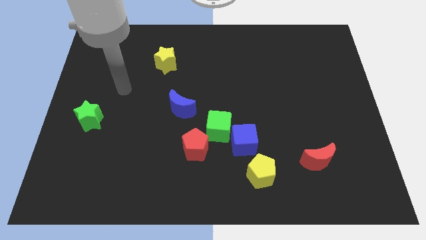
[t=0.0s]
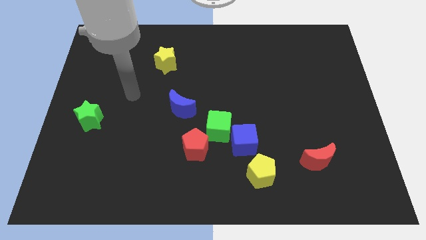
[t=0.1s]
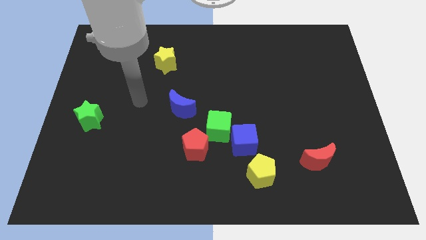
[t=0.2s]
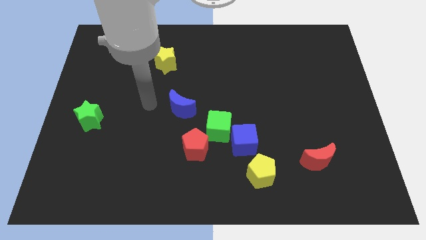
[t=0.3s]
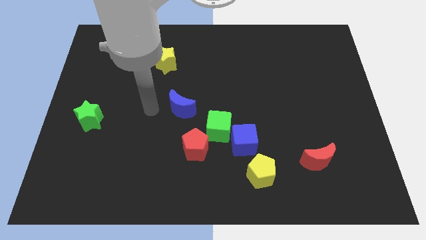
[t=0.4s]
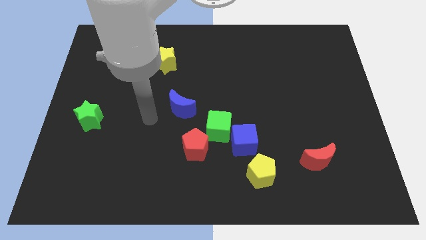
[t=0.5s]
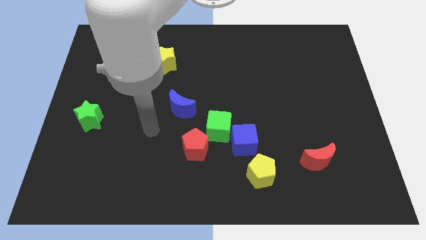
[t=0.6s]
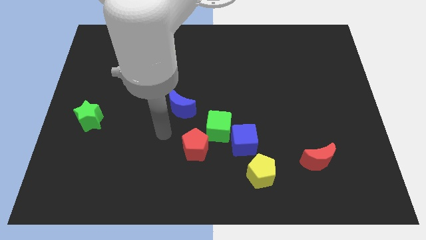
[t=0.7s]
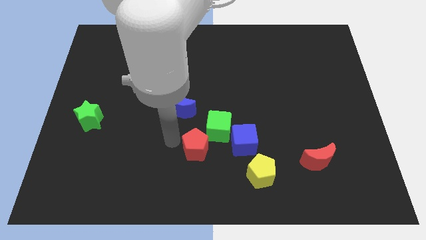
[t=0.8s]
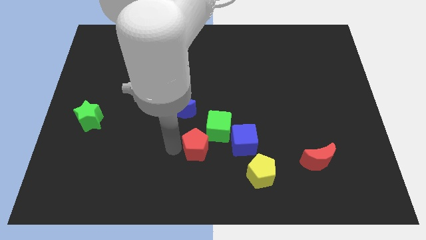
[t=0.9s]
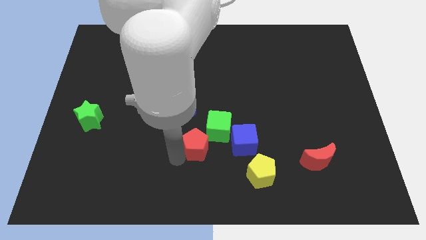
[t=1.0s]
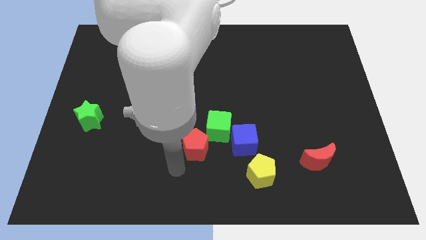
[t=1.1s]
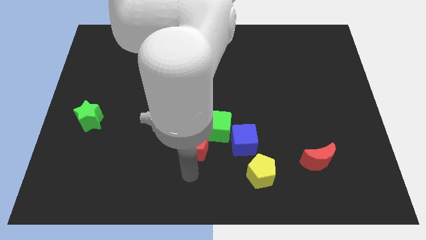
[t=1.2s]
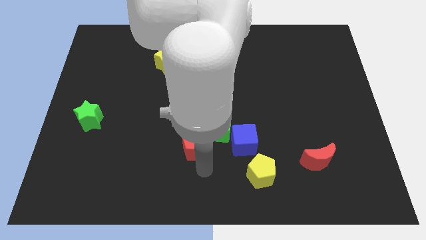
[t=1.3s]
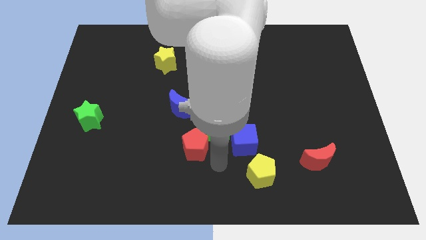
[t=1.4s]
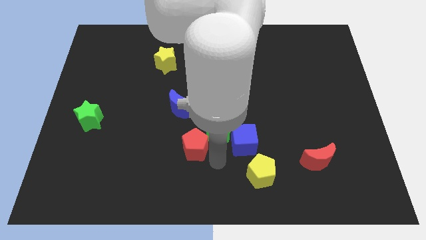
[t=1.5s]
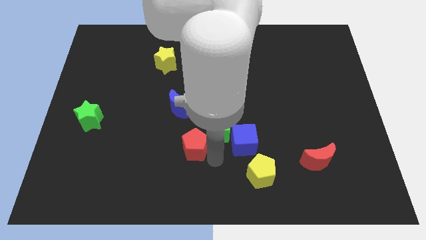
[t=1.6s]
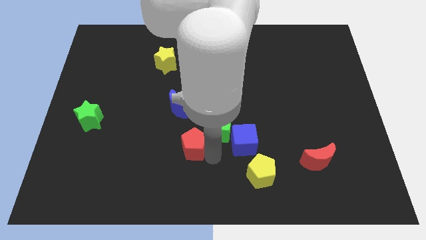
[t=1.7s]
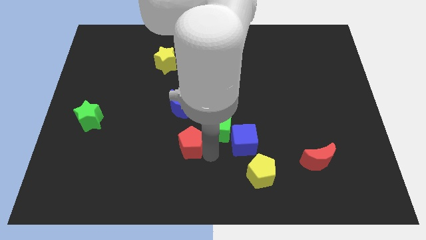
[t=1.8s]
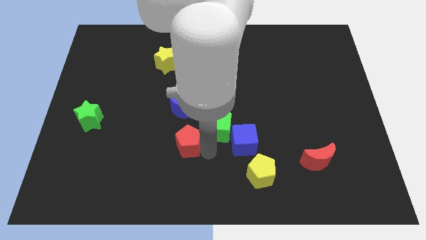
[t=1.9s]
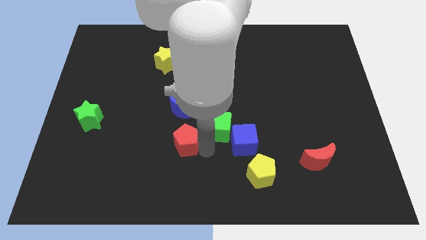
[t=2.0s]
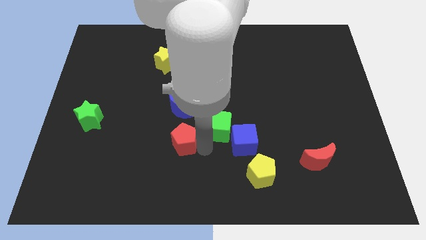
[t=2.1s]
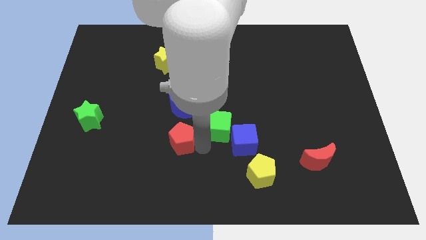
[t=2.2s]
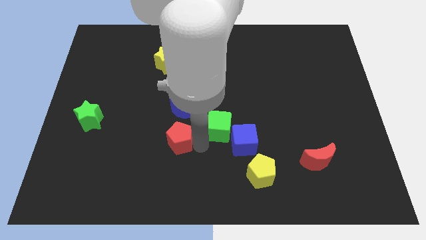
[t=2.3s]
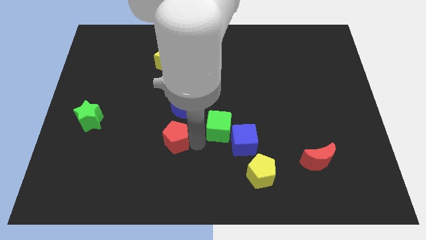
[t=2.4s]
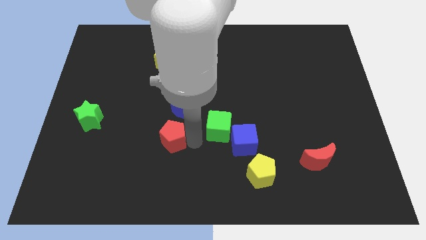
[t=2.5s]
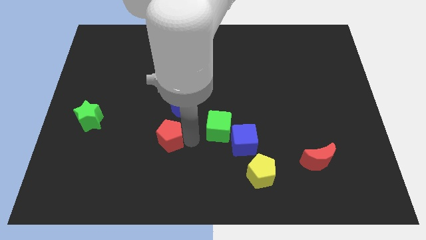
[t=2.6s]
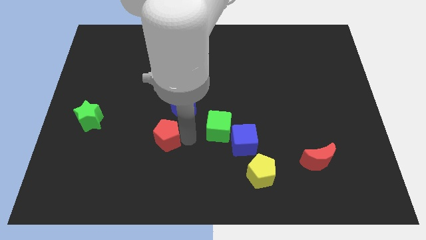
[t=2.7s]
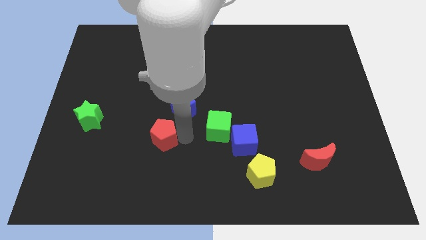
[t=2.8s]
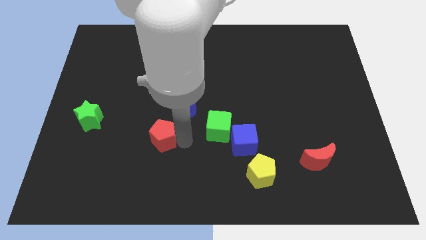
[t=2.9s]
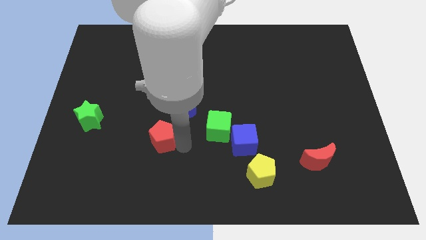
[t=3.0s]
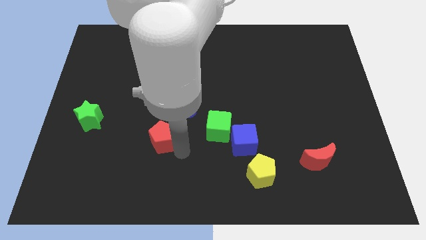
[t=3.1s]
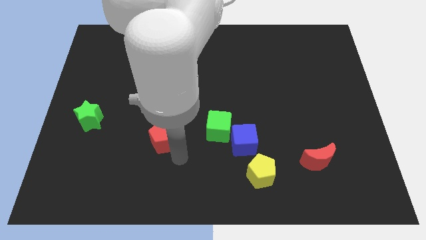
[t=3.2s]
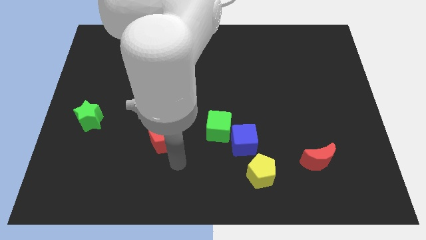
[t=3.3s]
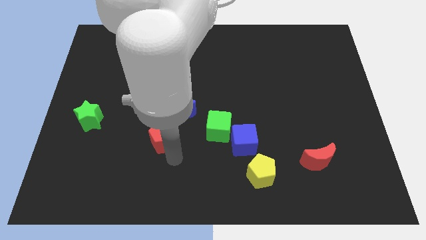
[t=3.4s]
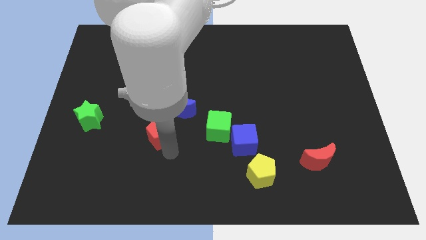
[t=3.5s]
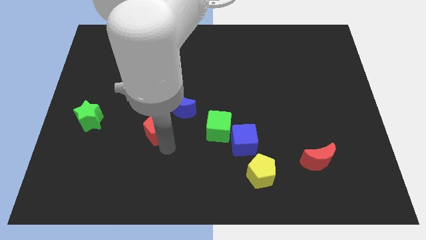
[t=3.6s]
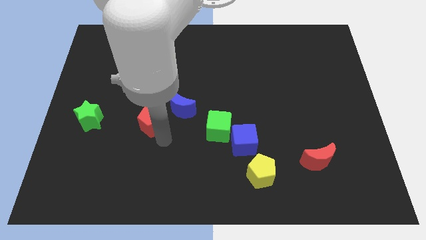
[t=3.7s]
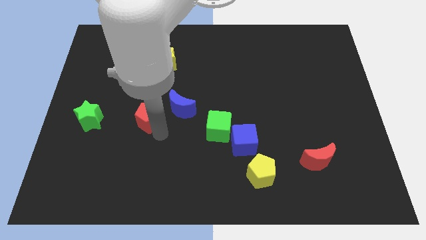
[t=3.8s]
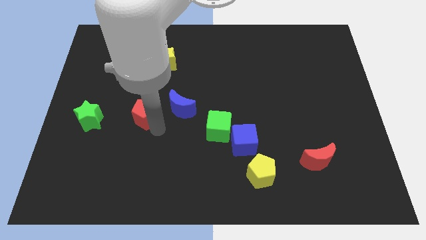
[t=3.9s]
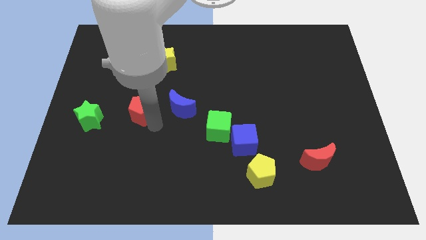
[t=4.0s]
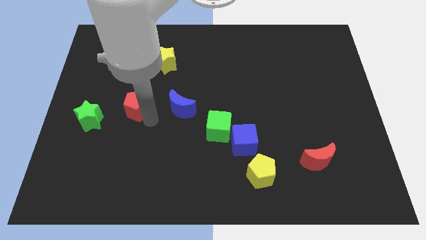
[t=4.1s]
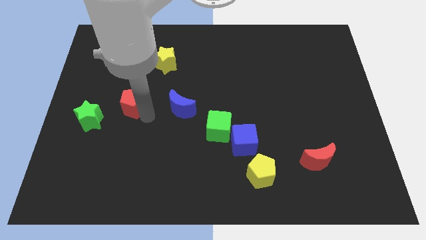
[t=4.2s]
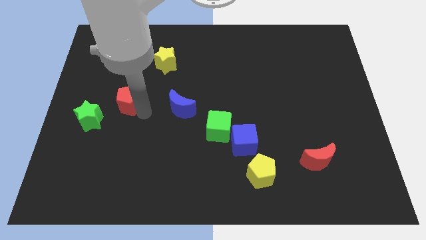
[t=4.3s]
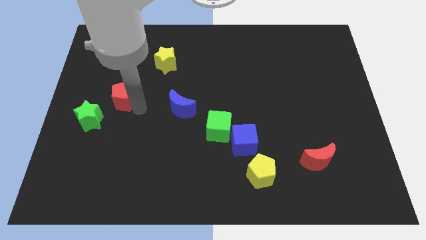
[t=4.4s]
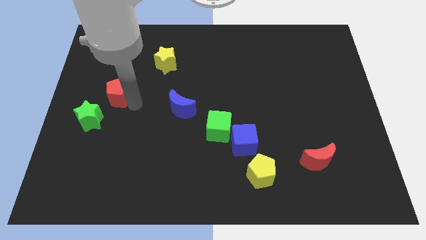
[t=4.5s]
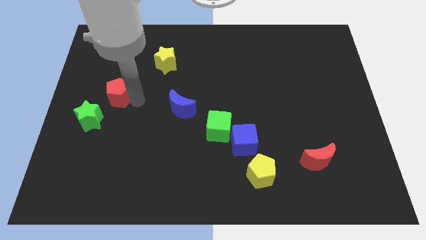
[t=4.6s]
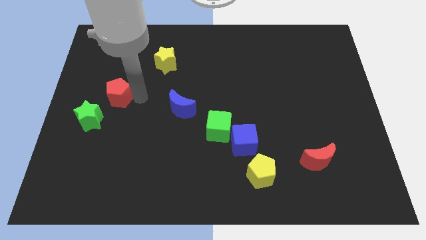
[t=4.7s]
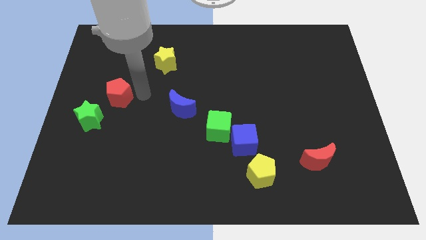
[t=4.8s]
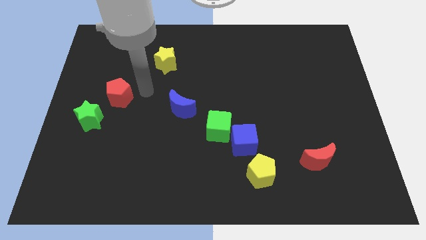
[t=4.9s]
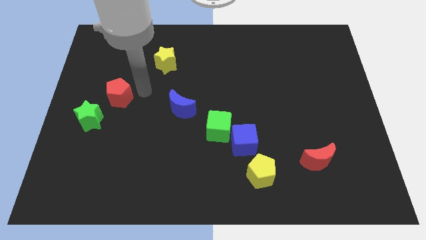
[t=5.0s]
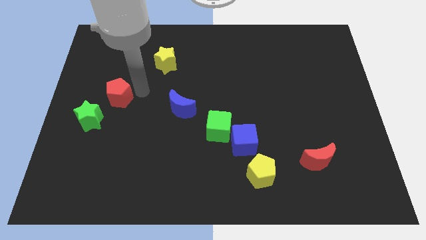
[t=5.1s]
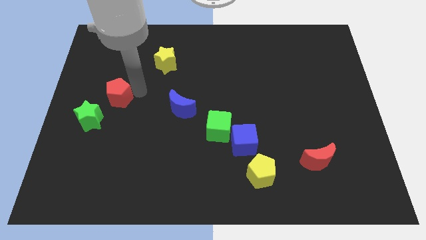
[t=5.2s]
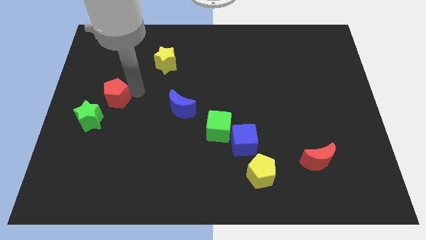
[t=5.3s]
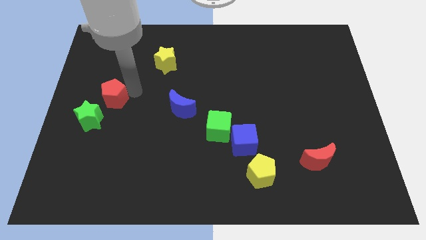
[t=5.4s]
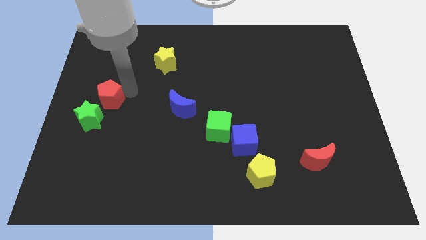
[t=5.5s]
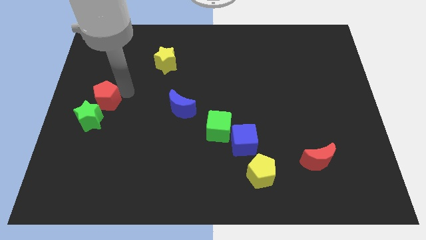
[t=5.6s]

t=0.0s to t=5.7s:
slide the red pentagon to the left side of the board

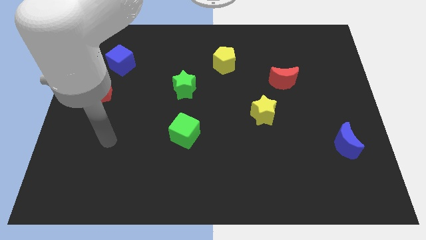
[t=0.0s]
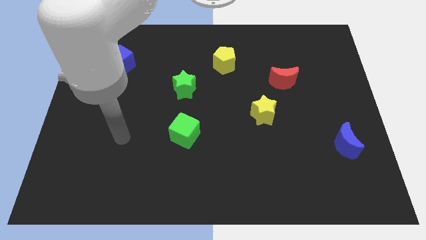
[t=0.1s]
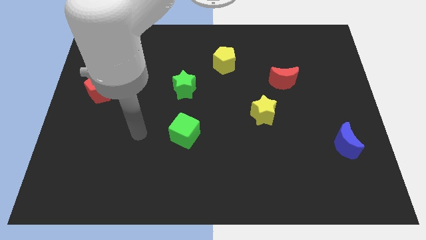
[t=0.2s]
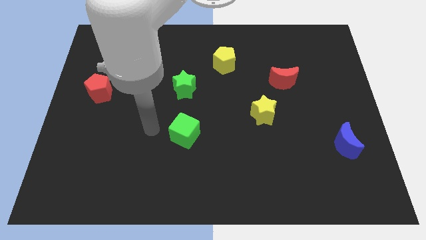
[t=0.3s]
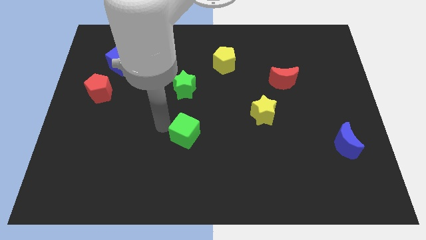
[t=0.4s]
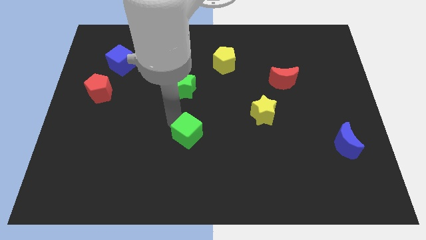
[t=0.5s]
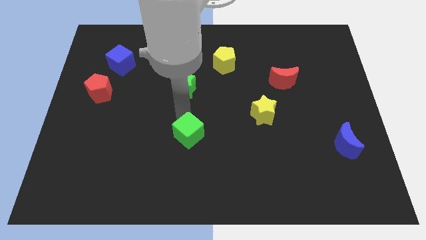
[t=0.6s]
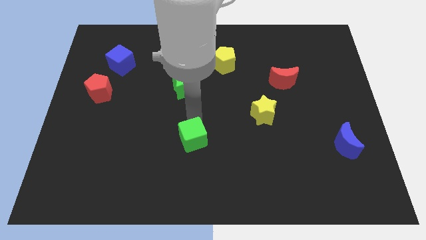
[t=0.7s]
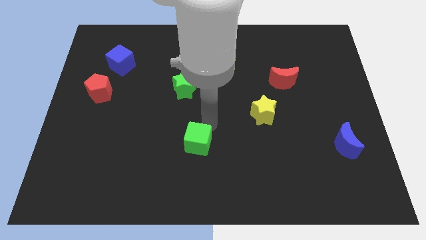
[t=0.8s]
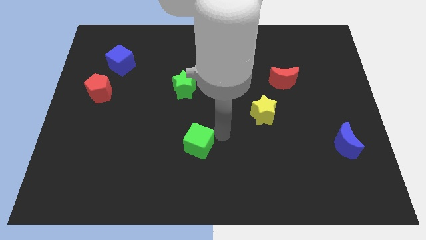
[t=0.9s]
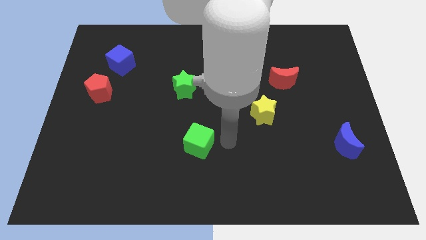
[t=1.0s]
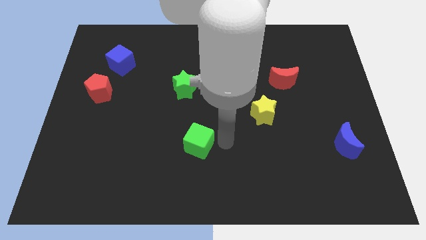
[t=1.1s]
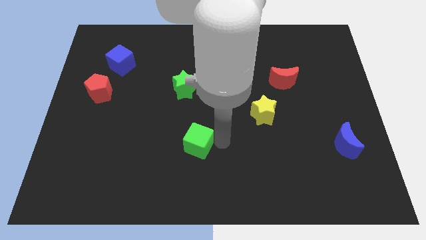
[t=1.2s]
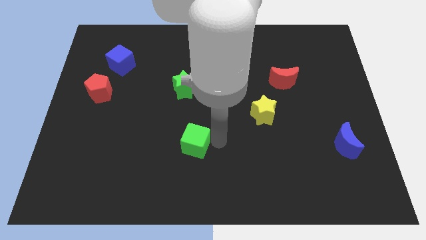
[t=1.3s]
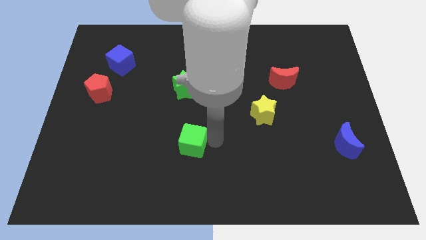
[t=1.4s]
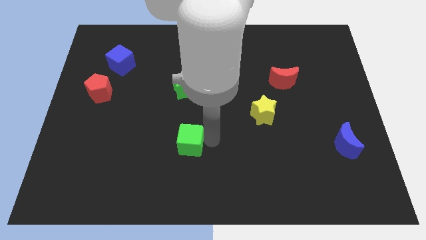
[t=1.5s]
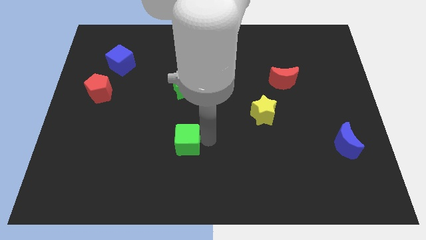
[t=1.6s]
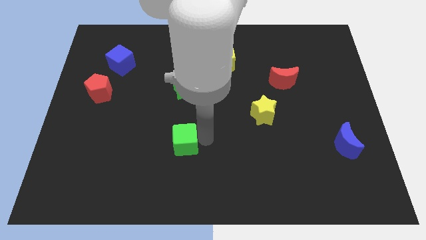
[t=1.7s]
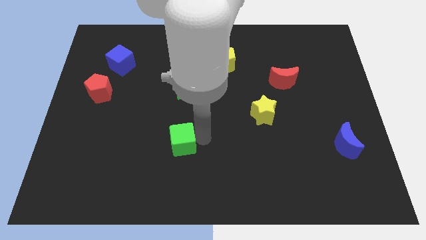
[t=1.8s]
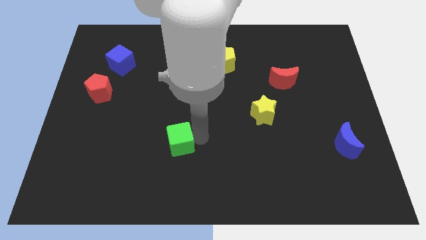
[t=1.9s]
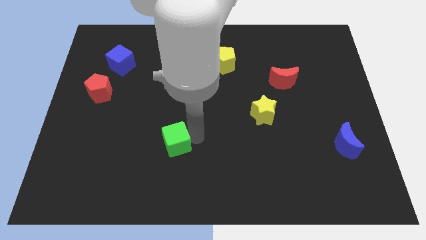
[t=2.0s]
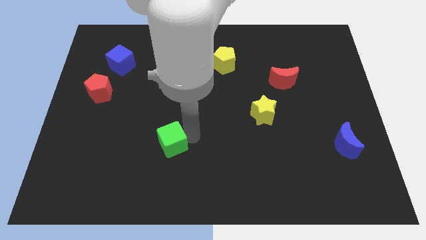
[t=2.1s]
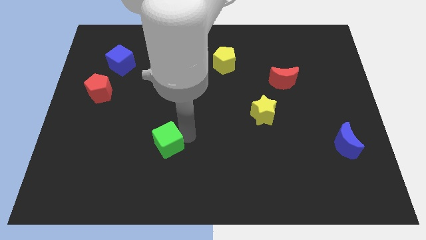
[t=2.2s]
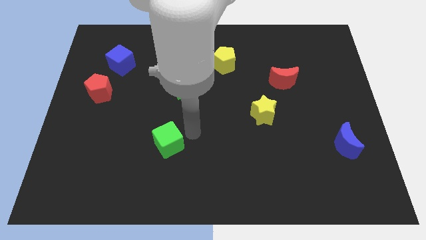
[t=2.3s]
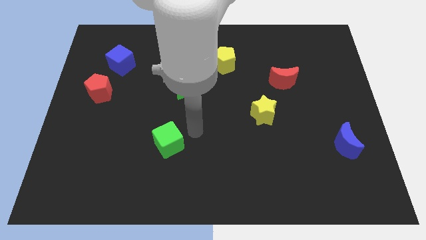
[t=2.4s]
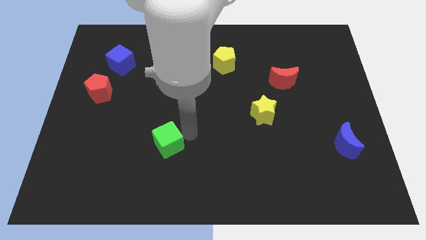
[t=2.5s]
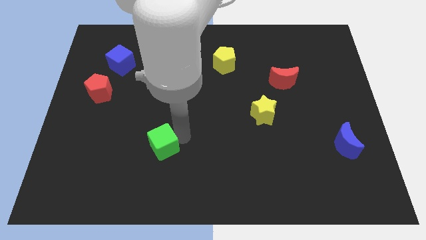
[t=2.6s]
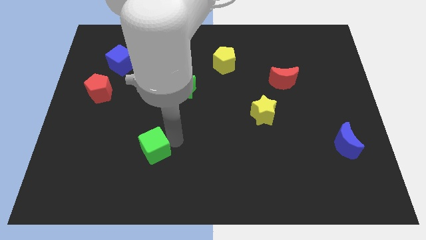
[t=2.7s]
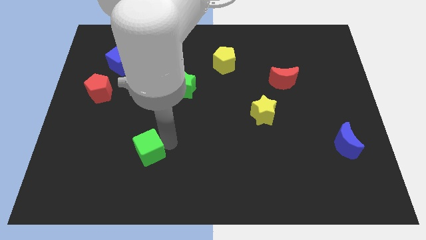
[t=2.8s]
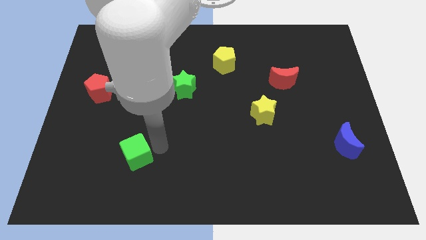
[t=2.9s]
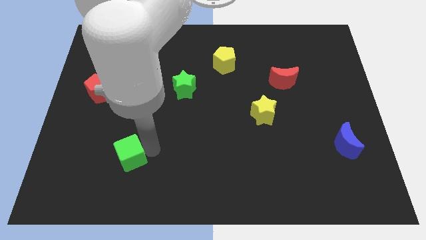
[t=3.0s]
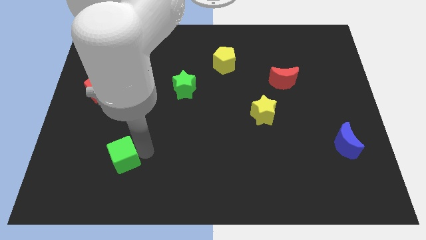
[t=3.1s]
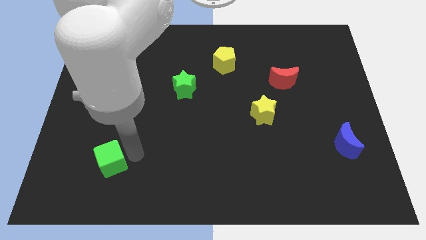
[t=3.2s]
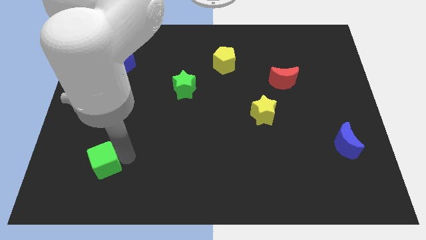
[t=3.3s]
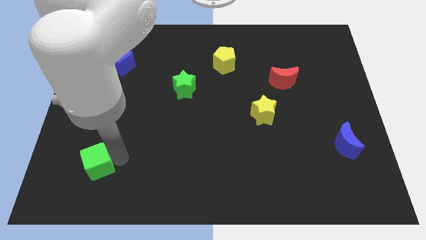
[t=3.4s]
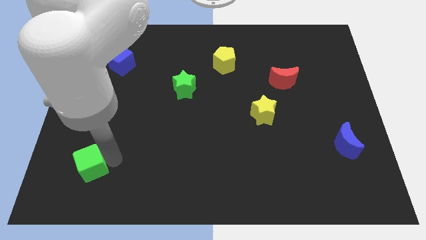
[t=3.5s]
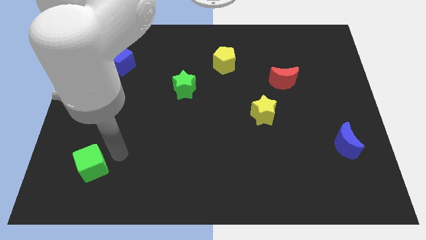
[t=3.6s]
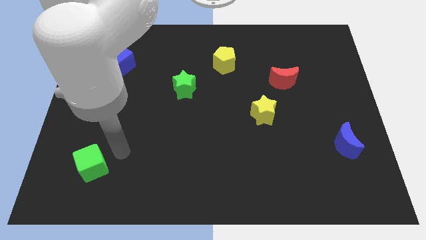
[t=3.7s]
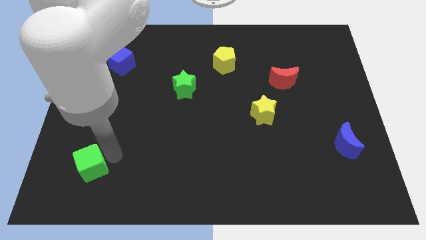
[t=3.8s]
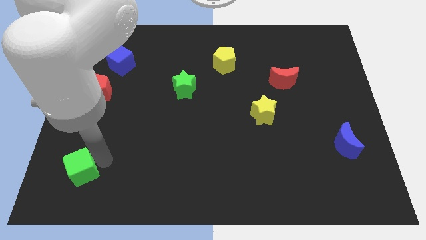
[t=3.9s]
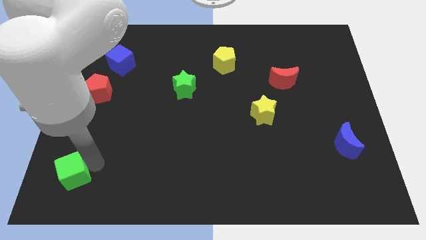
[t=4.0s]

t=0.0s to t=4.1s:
put the green cube to the bottom left corner
